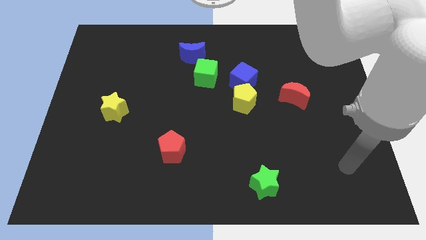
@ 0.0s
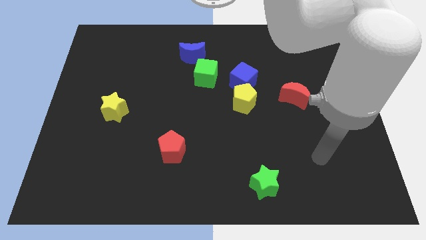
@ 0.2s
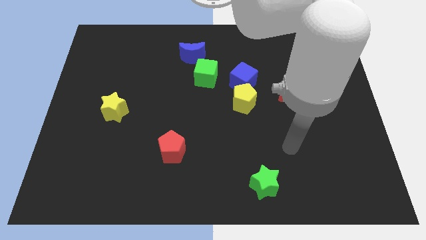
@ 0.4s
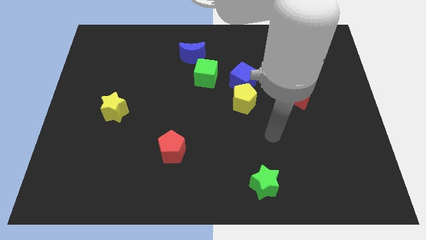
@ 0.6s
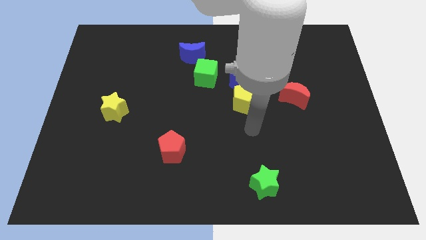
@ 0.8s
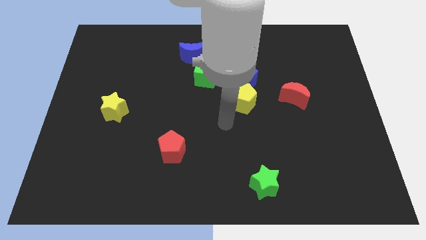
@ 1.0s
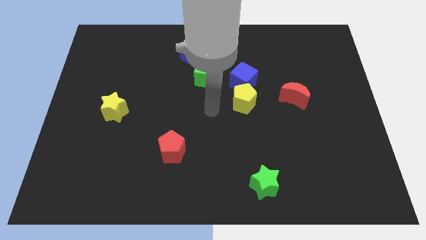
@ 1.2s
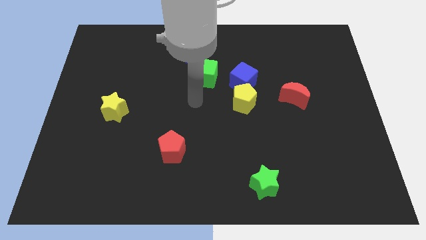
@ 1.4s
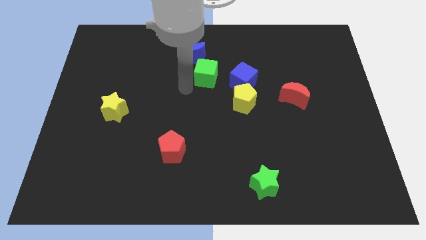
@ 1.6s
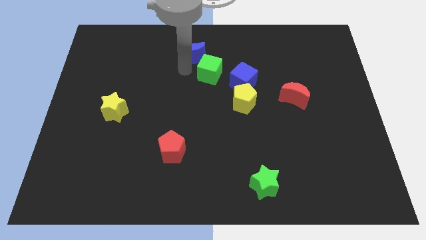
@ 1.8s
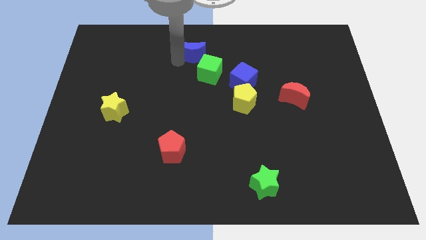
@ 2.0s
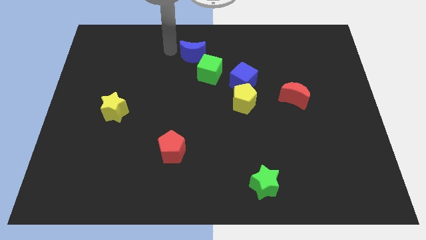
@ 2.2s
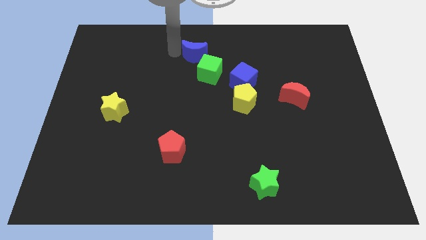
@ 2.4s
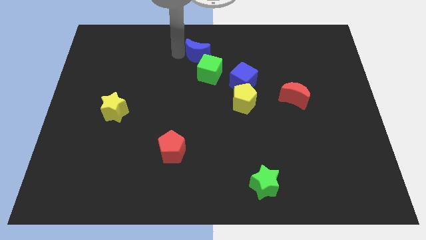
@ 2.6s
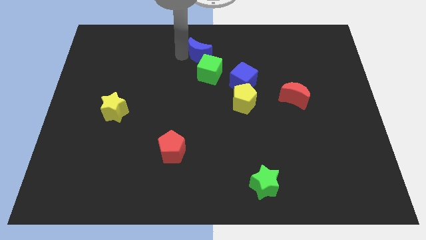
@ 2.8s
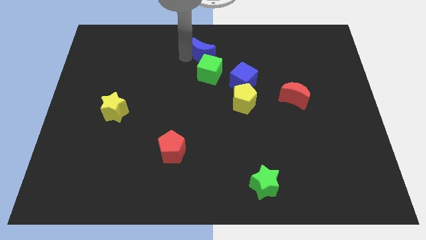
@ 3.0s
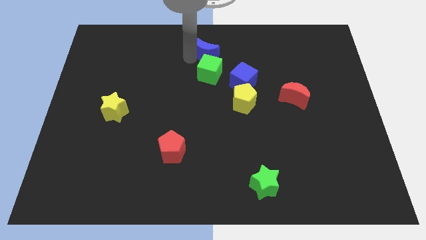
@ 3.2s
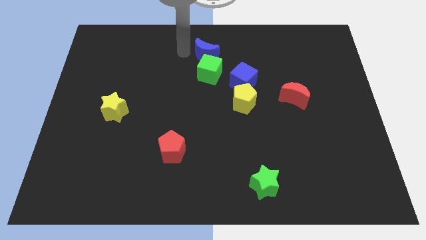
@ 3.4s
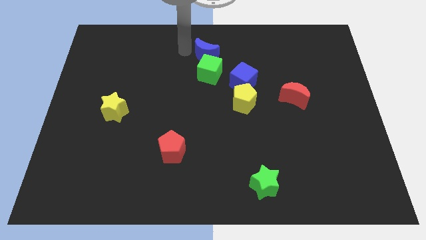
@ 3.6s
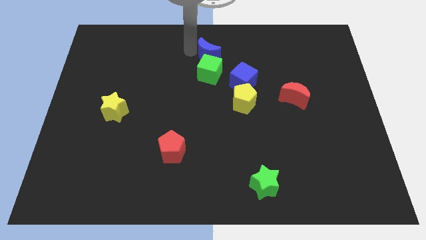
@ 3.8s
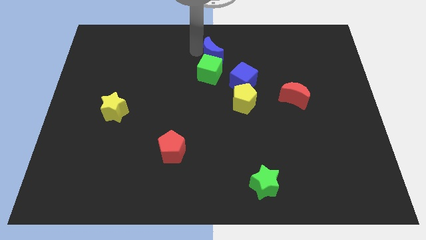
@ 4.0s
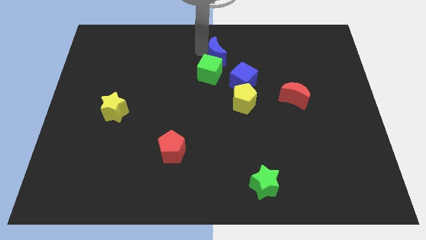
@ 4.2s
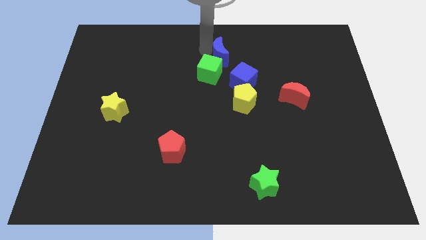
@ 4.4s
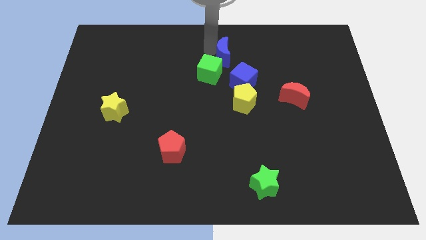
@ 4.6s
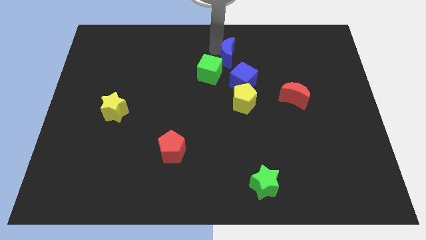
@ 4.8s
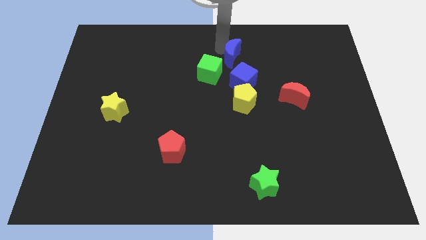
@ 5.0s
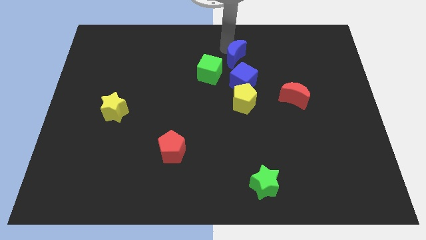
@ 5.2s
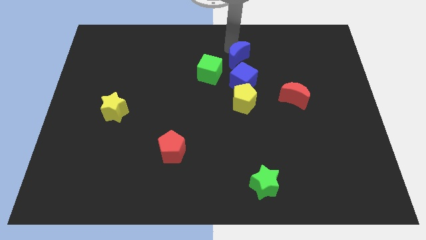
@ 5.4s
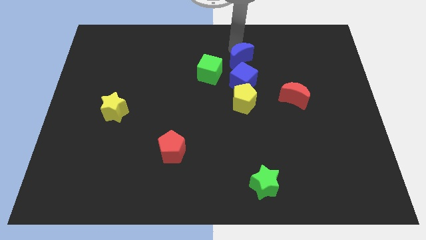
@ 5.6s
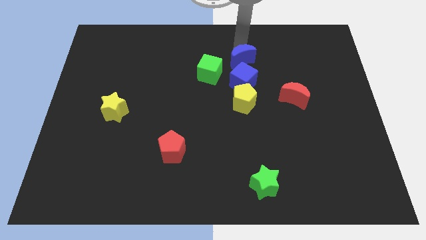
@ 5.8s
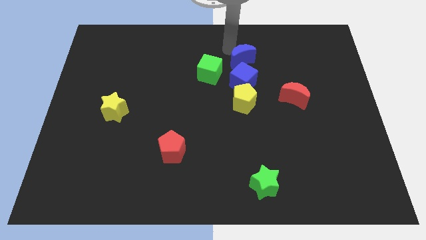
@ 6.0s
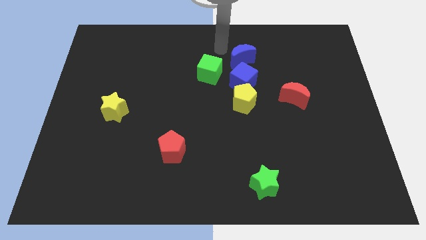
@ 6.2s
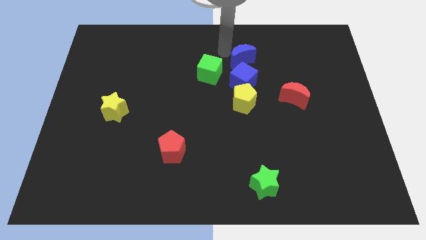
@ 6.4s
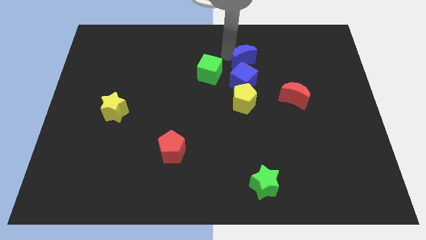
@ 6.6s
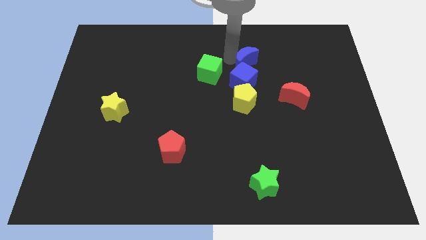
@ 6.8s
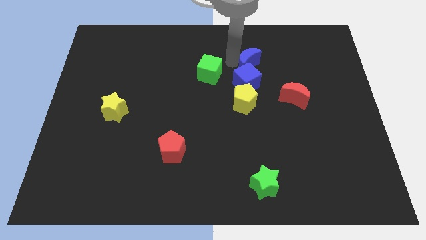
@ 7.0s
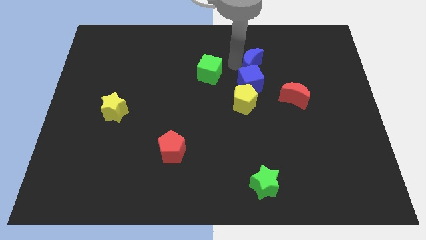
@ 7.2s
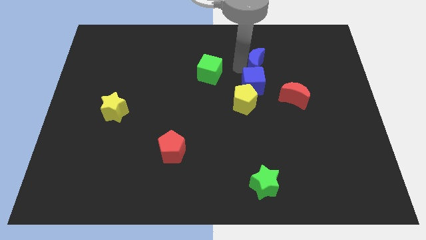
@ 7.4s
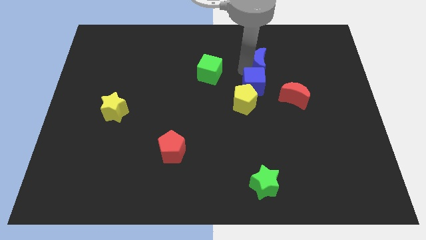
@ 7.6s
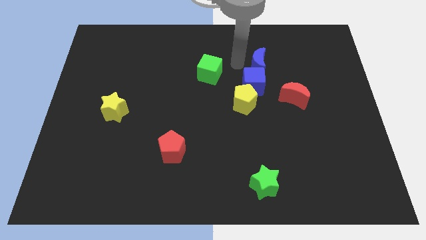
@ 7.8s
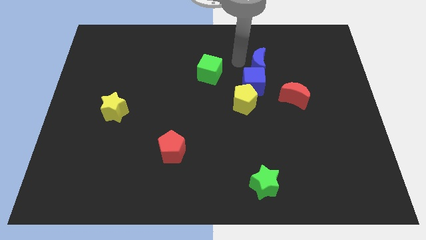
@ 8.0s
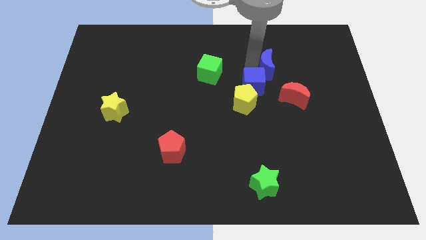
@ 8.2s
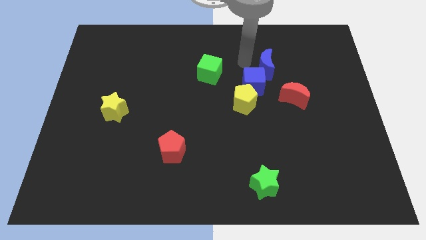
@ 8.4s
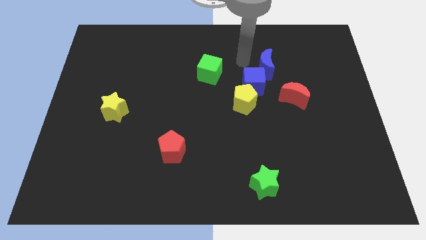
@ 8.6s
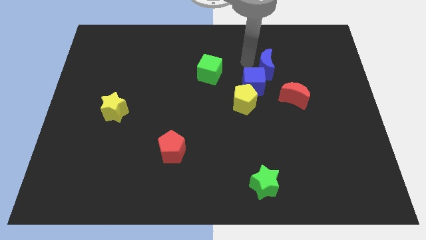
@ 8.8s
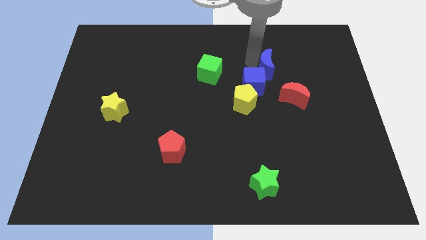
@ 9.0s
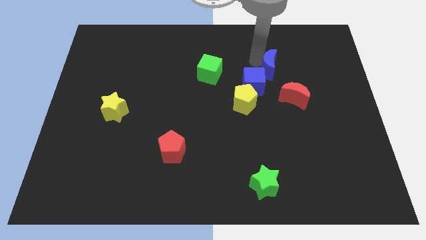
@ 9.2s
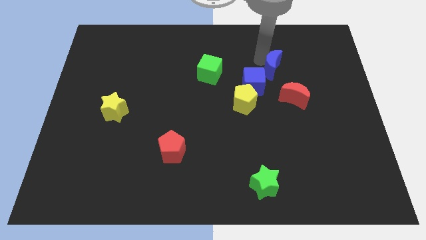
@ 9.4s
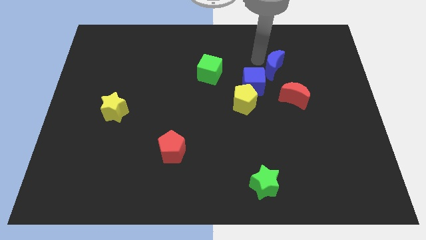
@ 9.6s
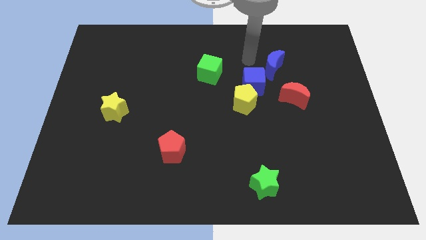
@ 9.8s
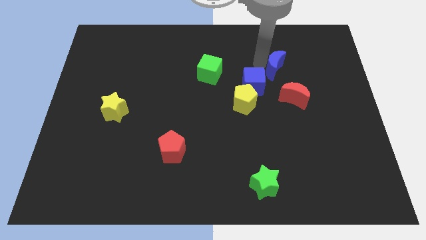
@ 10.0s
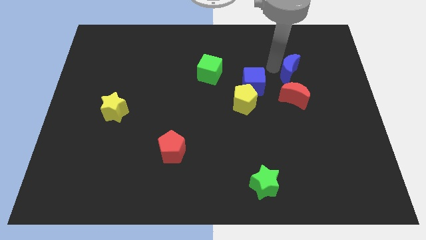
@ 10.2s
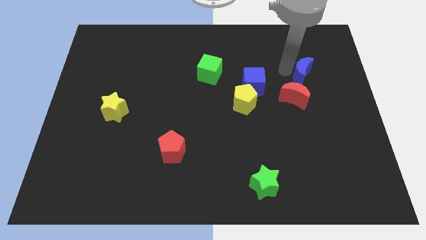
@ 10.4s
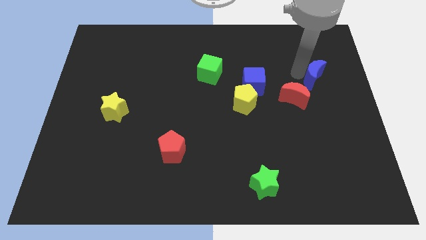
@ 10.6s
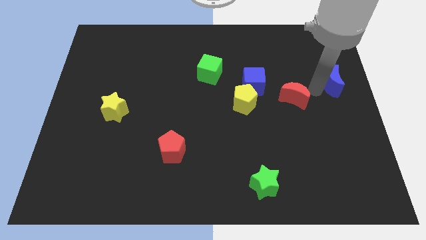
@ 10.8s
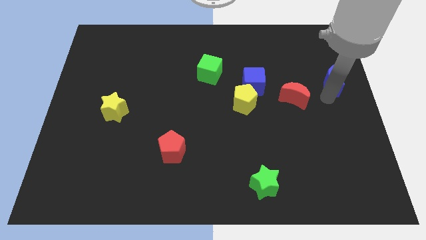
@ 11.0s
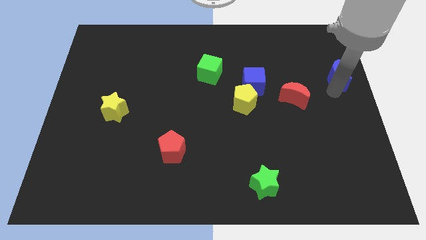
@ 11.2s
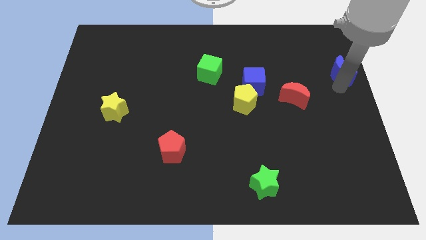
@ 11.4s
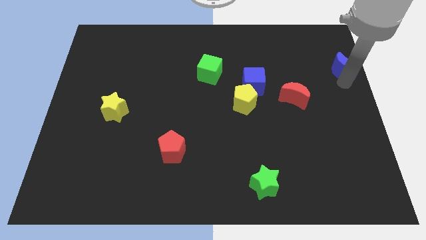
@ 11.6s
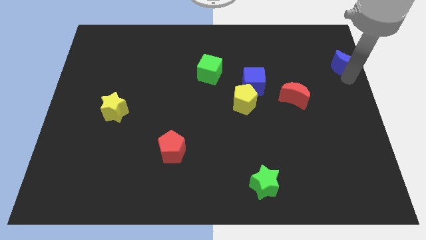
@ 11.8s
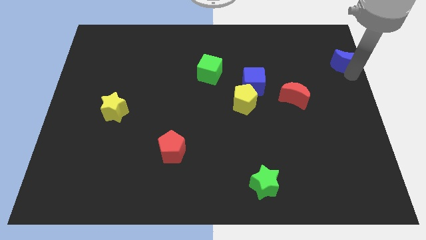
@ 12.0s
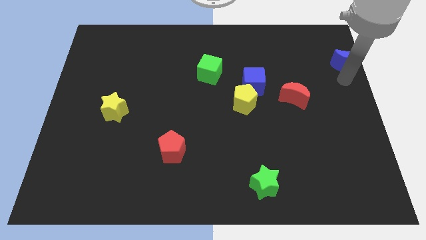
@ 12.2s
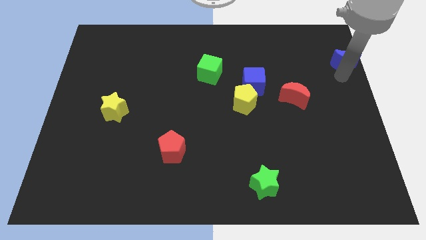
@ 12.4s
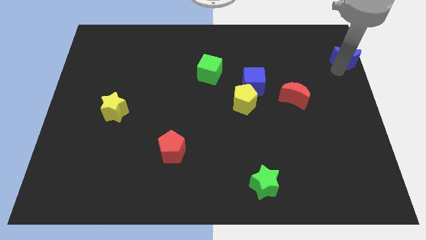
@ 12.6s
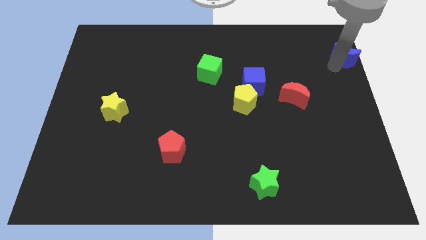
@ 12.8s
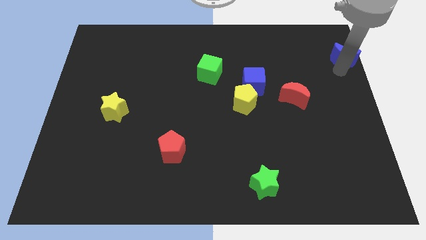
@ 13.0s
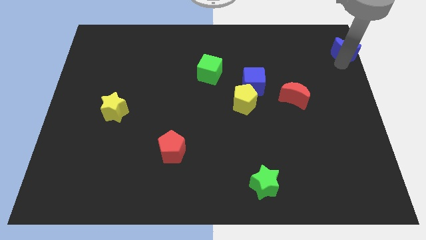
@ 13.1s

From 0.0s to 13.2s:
move the blue moon to the top right of the board
